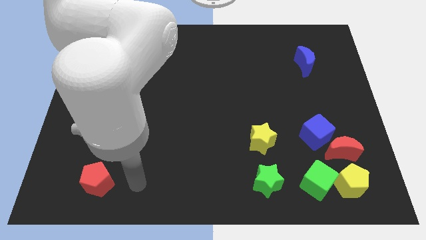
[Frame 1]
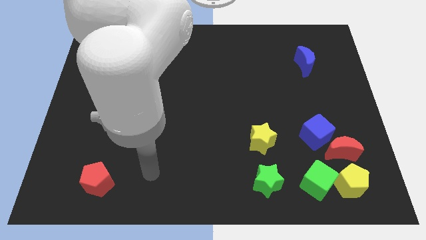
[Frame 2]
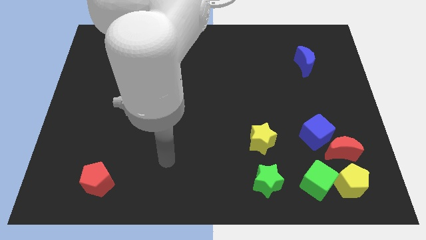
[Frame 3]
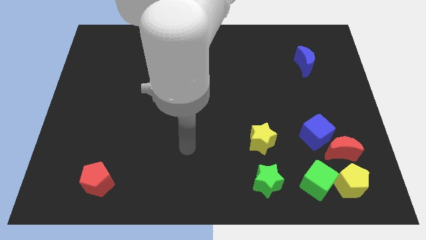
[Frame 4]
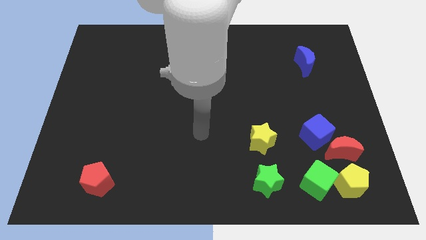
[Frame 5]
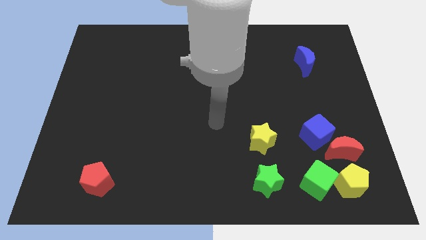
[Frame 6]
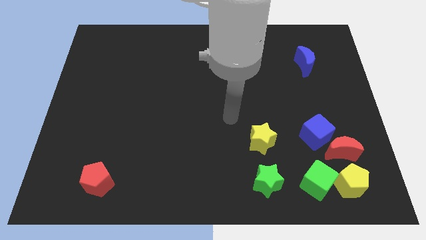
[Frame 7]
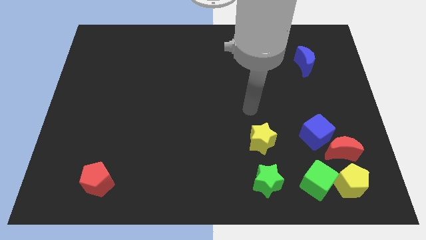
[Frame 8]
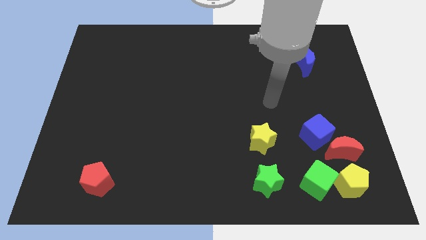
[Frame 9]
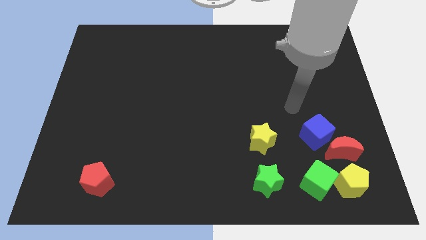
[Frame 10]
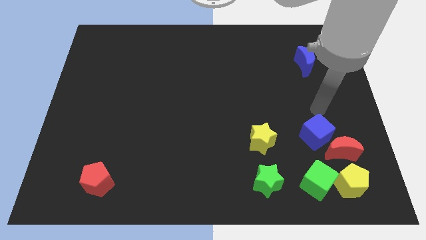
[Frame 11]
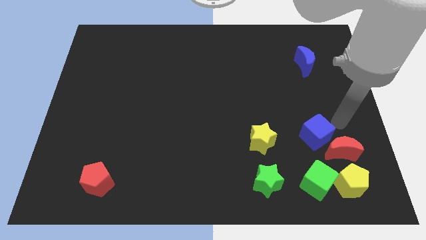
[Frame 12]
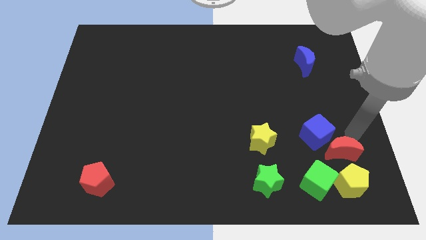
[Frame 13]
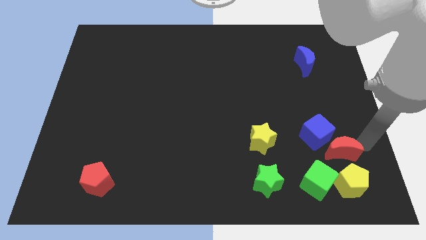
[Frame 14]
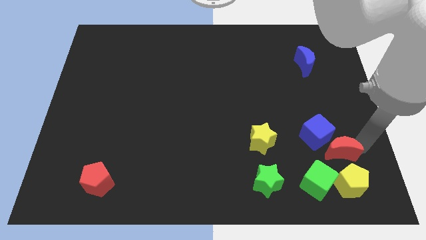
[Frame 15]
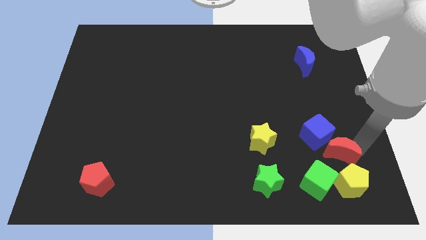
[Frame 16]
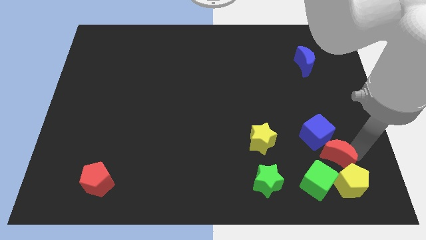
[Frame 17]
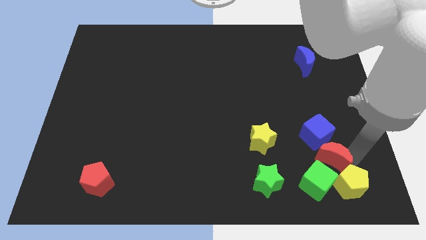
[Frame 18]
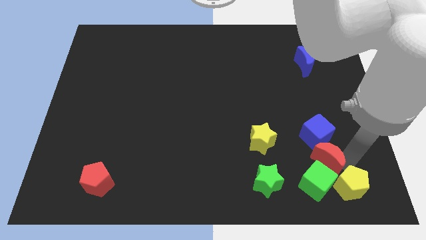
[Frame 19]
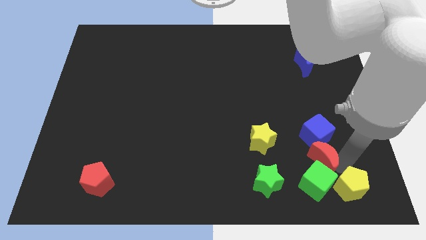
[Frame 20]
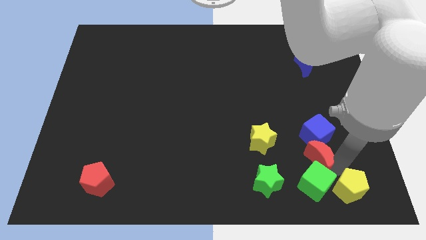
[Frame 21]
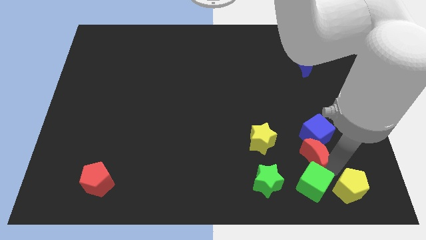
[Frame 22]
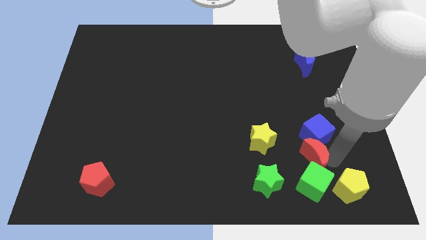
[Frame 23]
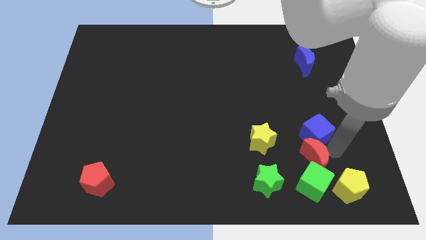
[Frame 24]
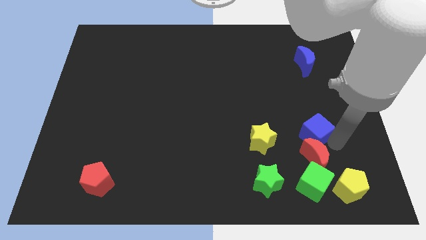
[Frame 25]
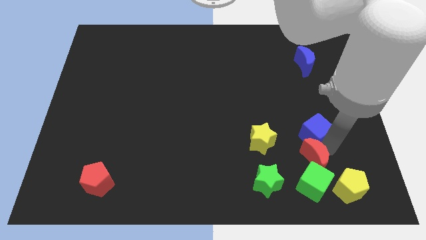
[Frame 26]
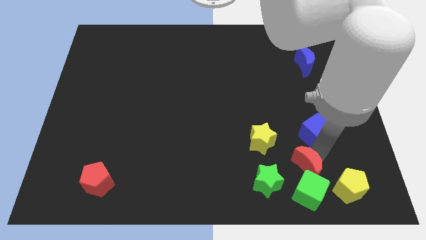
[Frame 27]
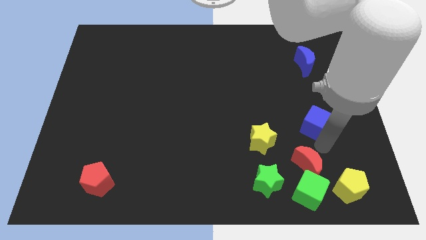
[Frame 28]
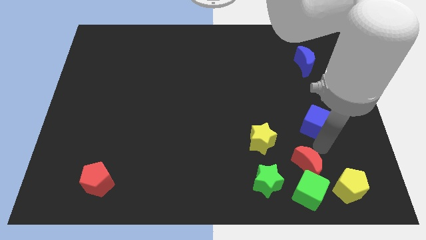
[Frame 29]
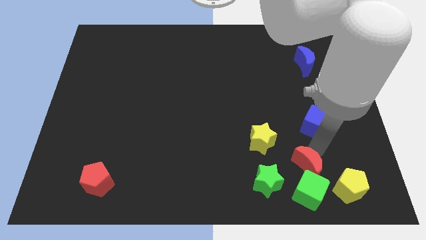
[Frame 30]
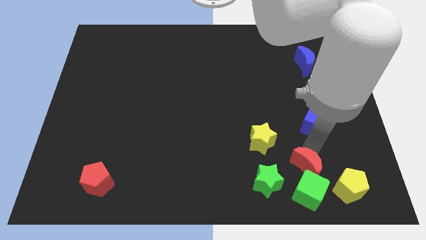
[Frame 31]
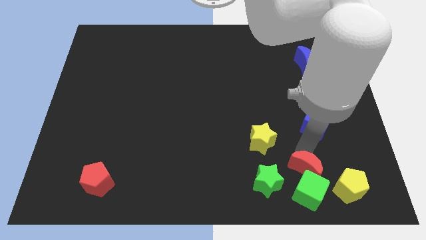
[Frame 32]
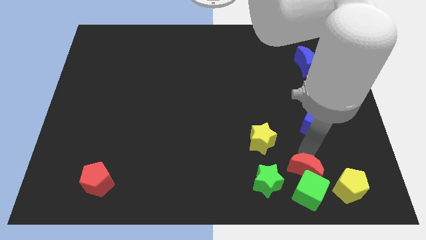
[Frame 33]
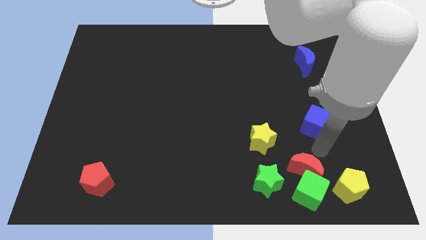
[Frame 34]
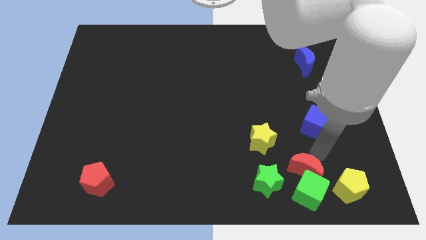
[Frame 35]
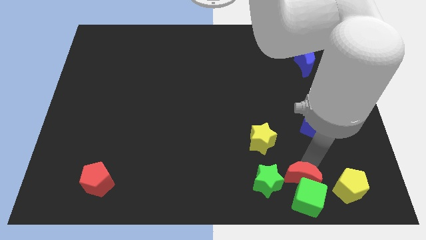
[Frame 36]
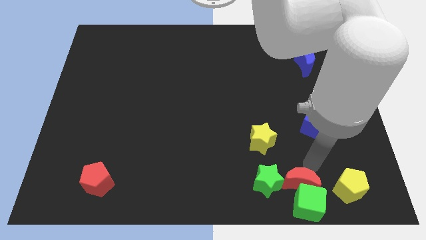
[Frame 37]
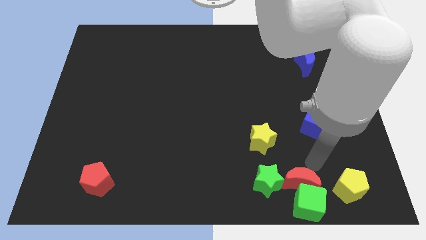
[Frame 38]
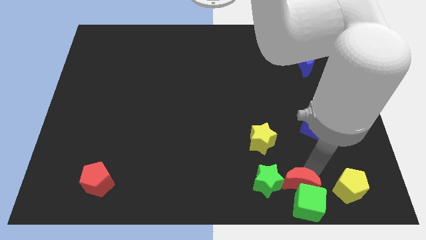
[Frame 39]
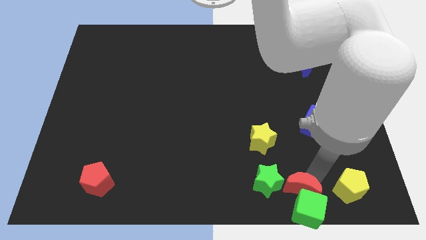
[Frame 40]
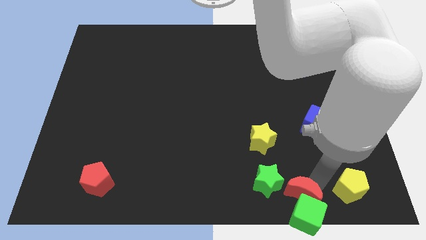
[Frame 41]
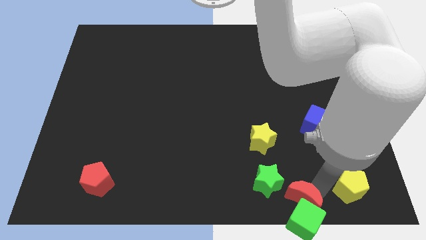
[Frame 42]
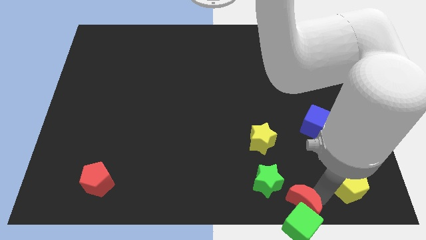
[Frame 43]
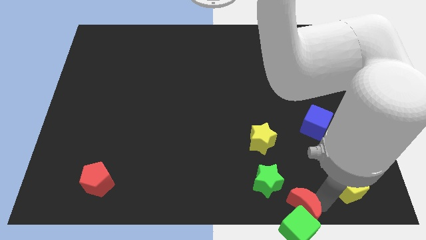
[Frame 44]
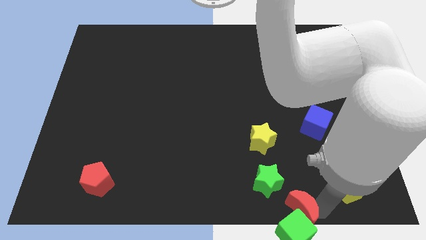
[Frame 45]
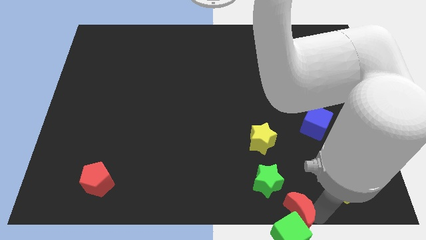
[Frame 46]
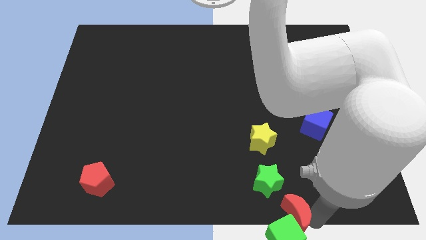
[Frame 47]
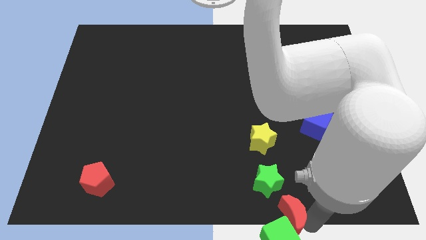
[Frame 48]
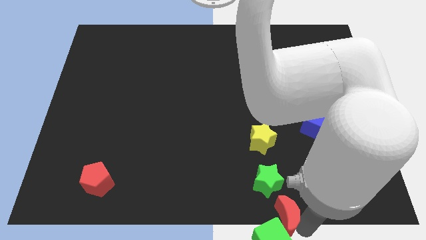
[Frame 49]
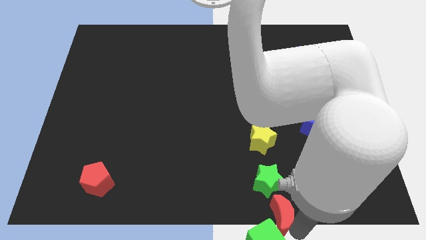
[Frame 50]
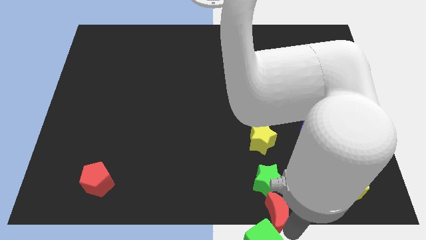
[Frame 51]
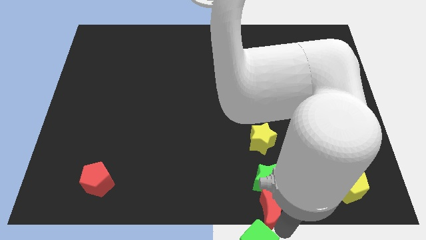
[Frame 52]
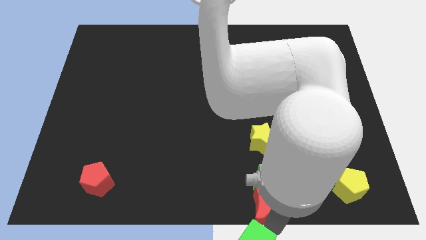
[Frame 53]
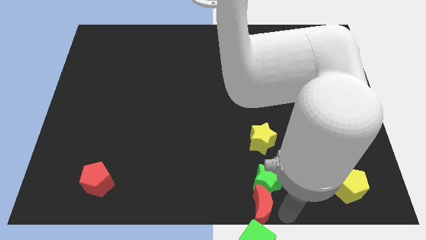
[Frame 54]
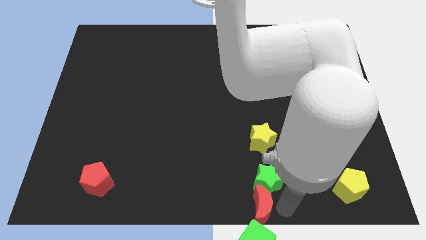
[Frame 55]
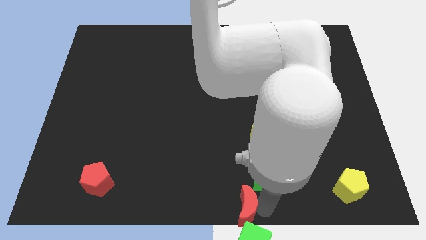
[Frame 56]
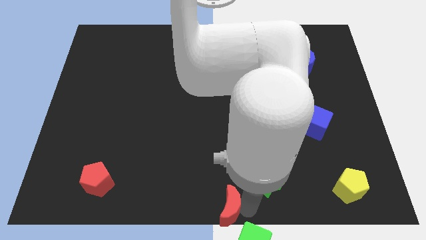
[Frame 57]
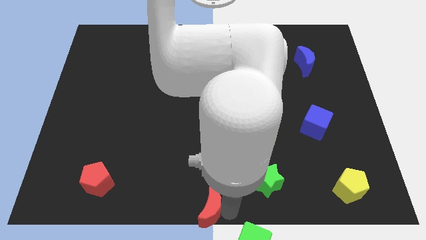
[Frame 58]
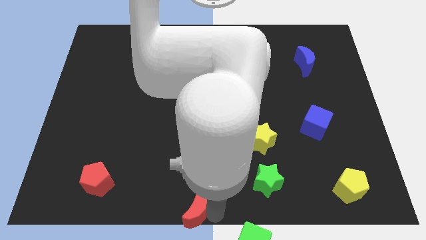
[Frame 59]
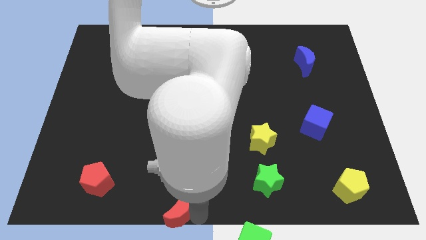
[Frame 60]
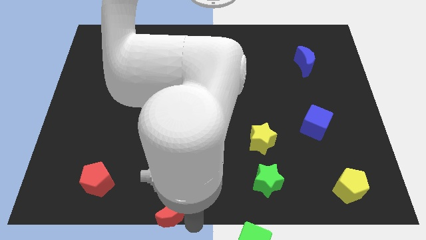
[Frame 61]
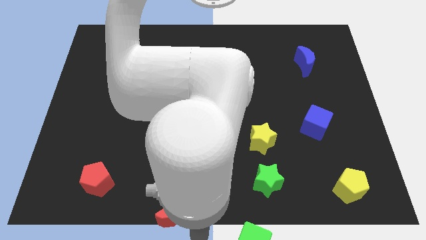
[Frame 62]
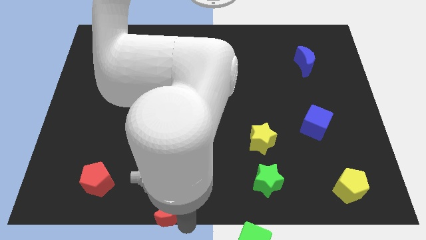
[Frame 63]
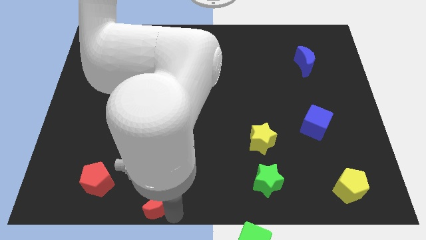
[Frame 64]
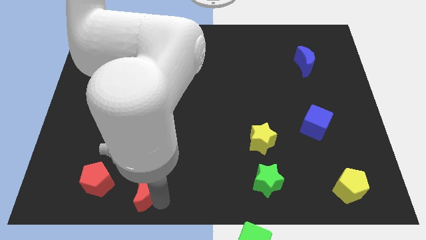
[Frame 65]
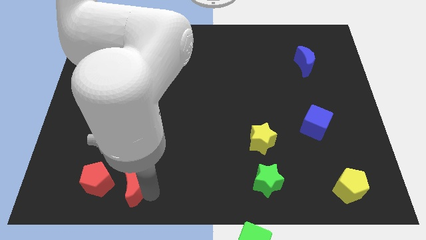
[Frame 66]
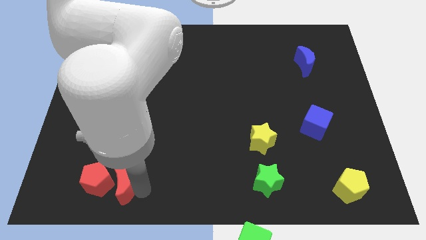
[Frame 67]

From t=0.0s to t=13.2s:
move the red moon next to the red pentagon

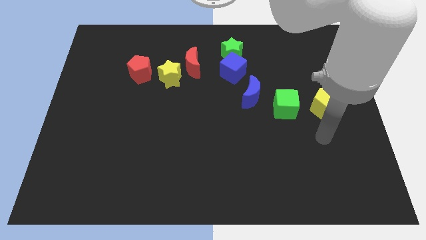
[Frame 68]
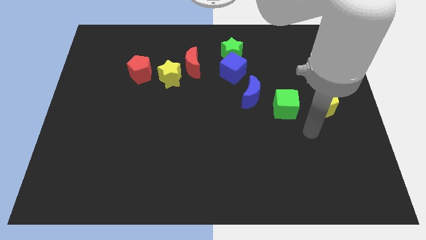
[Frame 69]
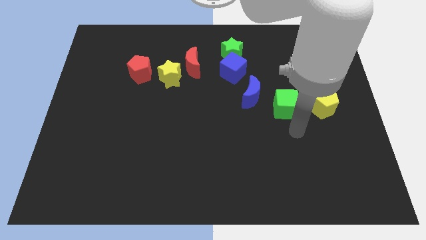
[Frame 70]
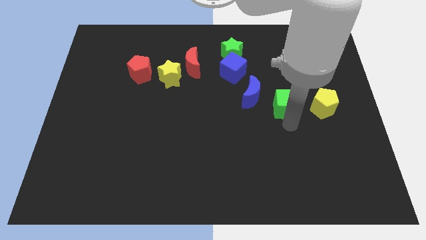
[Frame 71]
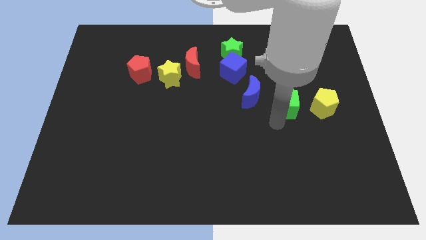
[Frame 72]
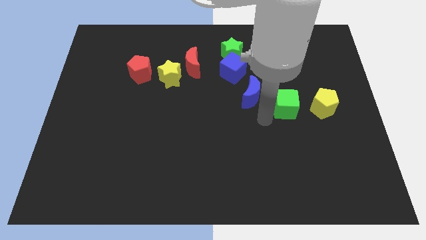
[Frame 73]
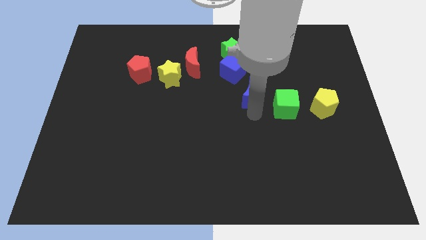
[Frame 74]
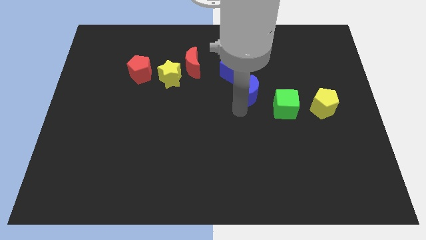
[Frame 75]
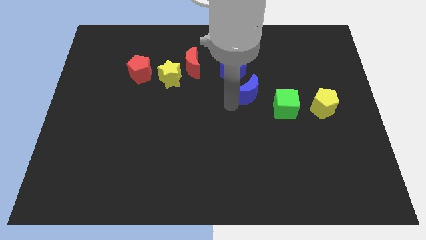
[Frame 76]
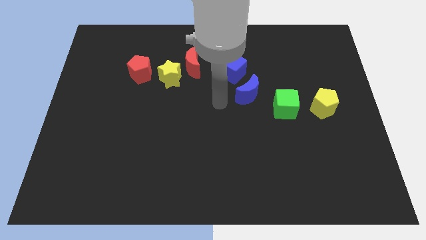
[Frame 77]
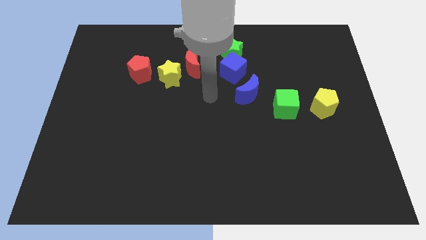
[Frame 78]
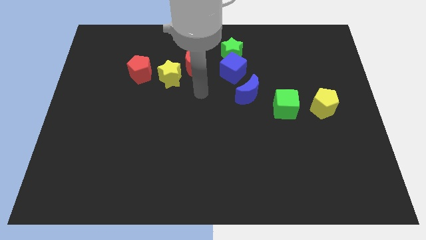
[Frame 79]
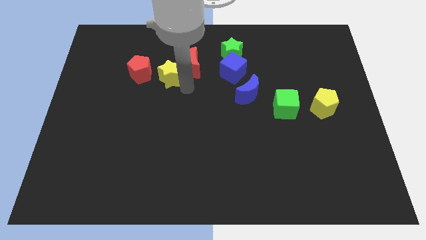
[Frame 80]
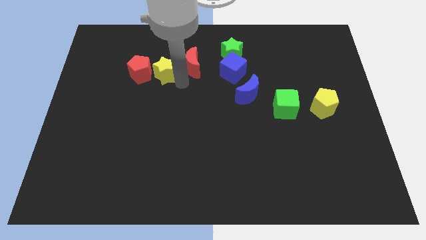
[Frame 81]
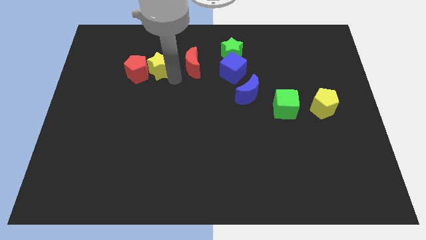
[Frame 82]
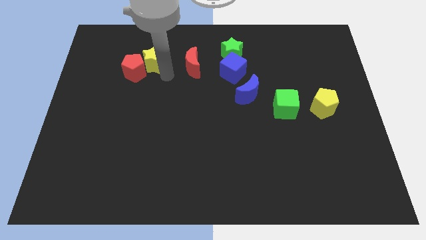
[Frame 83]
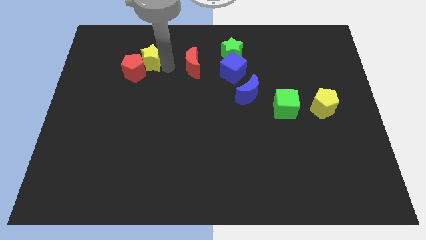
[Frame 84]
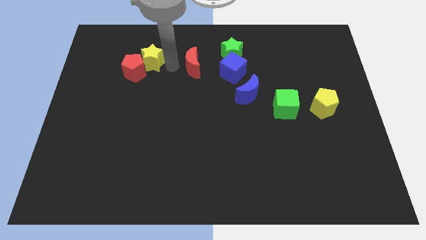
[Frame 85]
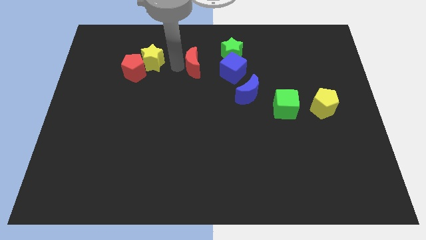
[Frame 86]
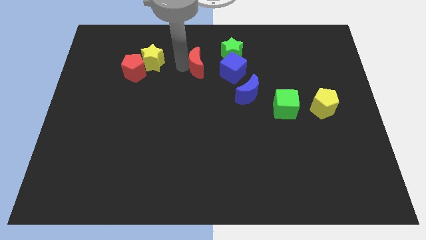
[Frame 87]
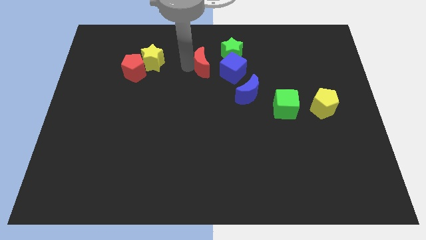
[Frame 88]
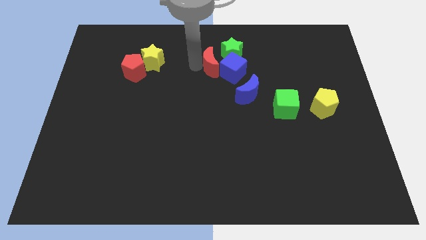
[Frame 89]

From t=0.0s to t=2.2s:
slide the red moon close to the blue cube
